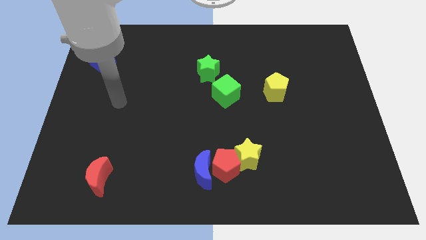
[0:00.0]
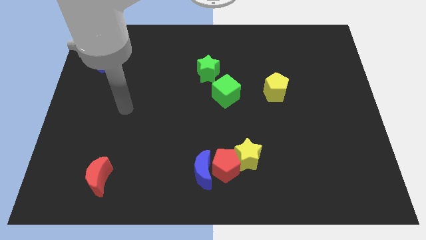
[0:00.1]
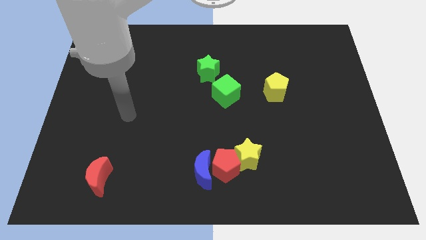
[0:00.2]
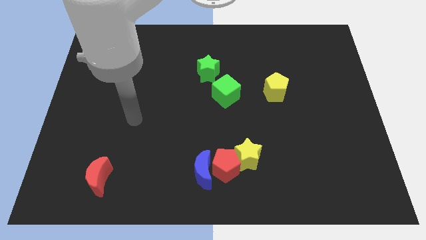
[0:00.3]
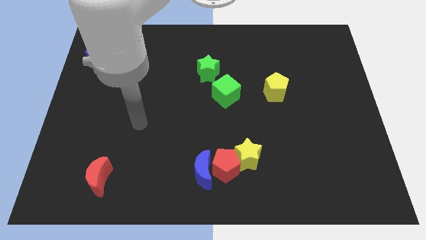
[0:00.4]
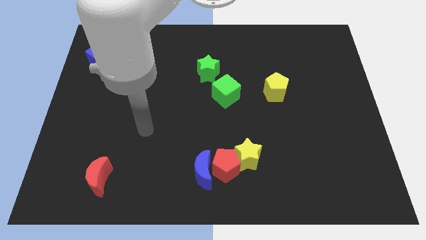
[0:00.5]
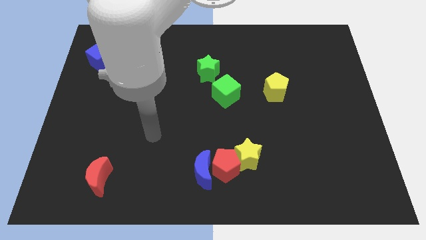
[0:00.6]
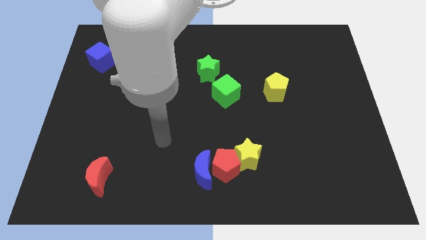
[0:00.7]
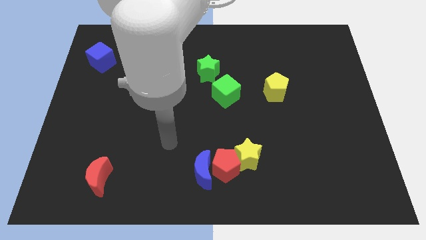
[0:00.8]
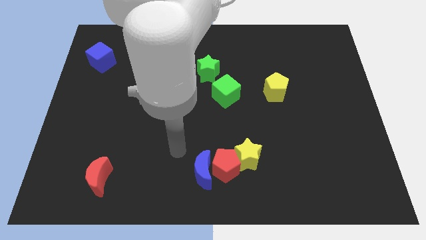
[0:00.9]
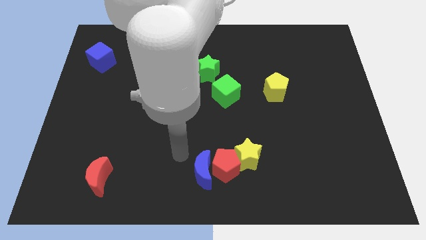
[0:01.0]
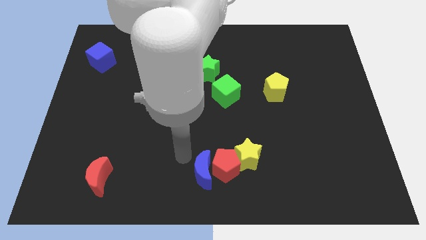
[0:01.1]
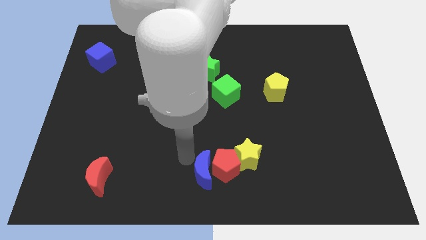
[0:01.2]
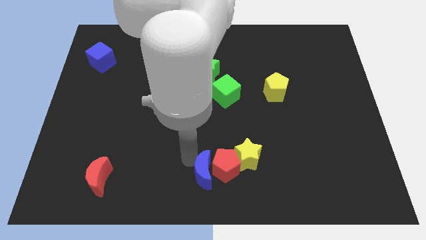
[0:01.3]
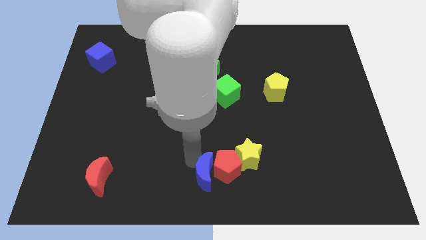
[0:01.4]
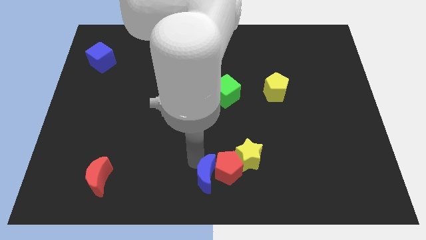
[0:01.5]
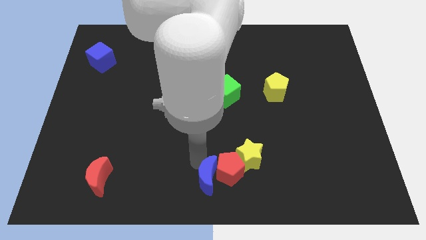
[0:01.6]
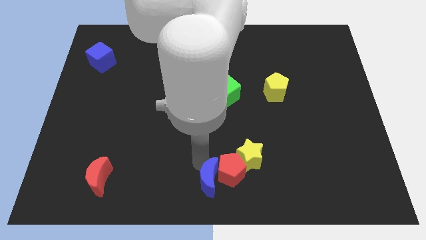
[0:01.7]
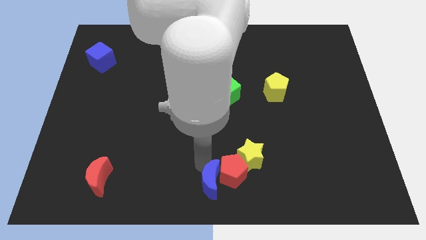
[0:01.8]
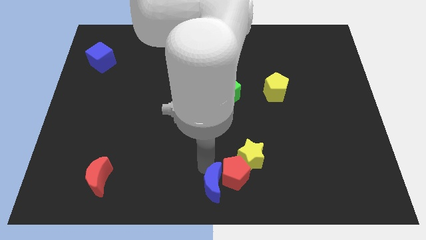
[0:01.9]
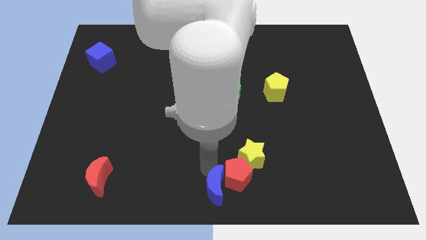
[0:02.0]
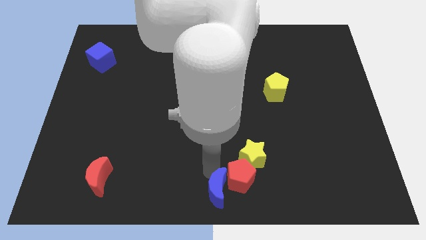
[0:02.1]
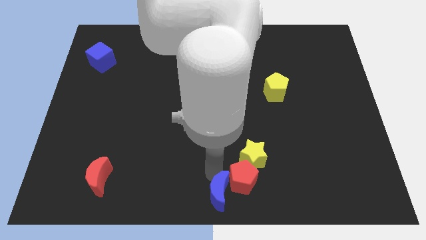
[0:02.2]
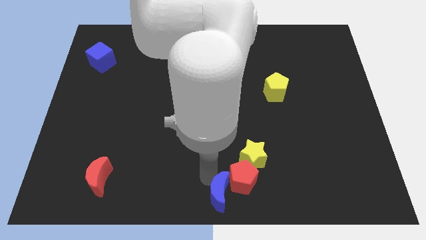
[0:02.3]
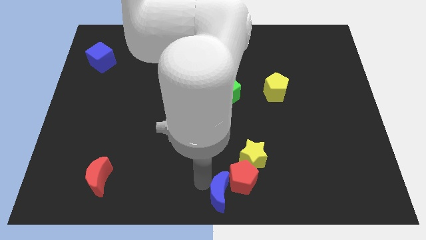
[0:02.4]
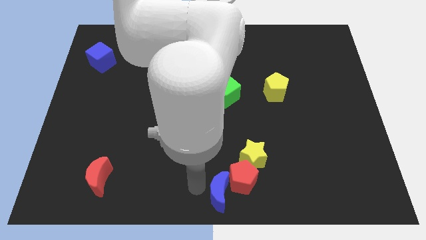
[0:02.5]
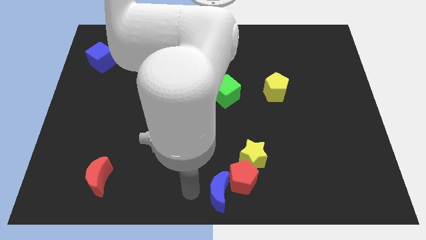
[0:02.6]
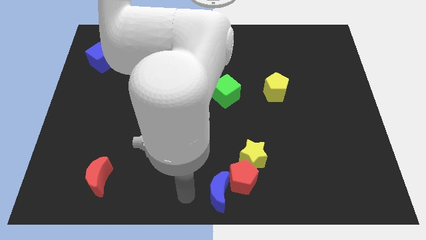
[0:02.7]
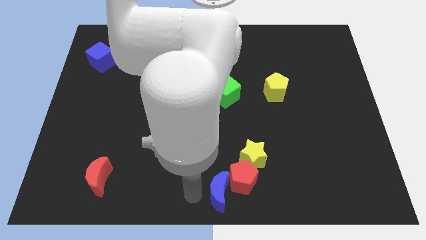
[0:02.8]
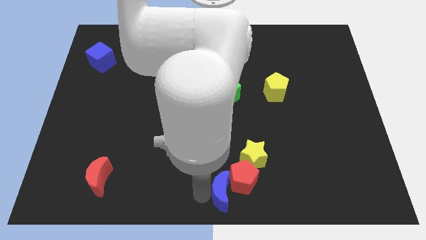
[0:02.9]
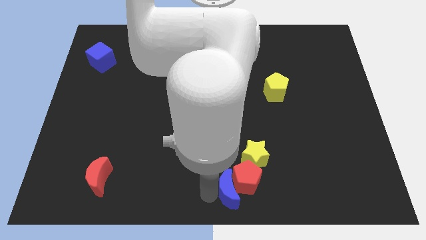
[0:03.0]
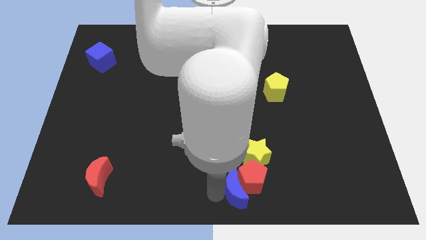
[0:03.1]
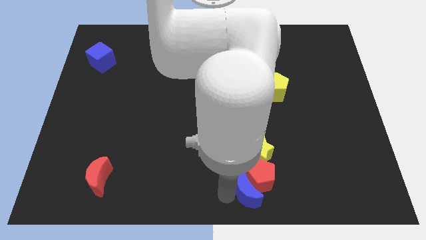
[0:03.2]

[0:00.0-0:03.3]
slightly slide the blue moon to the right

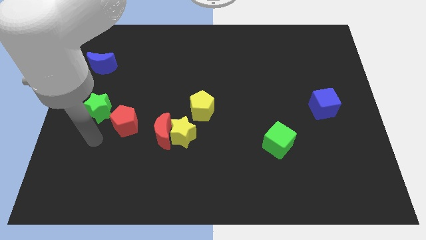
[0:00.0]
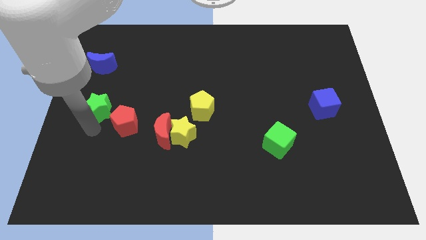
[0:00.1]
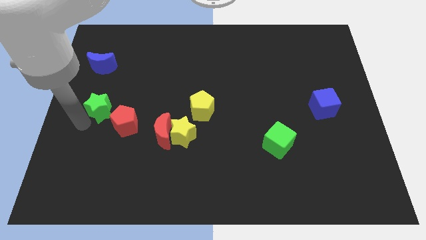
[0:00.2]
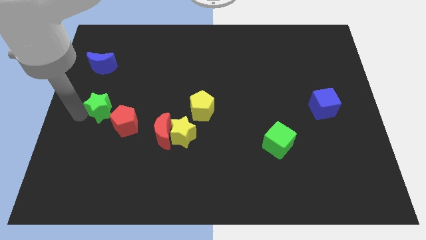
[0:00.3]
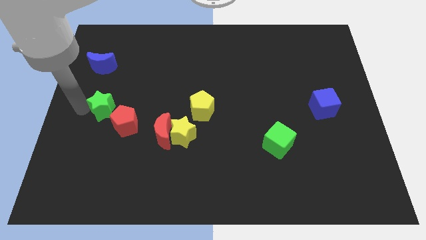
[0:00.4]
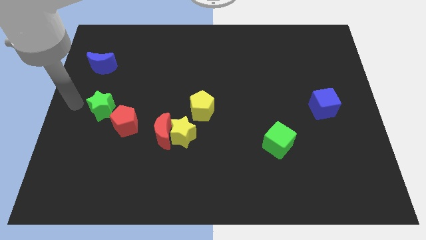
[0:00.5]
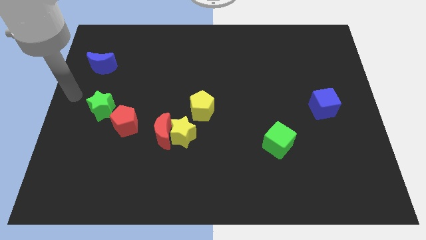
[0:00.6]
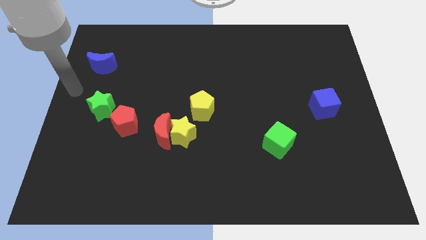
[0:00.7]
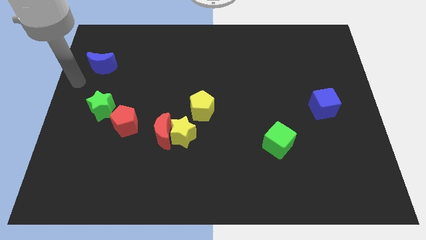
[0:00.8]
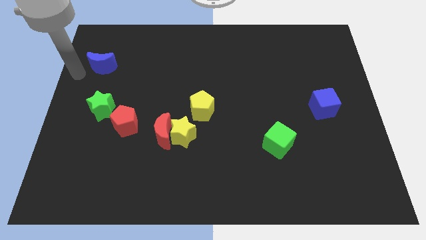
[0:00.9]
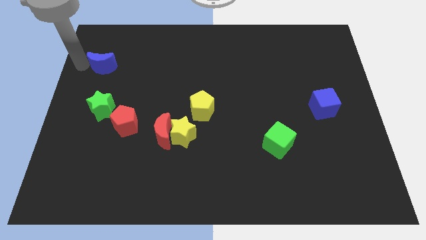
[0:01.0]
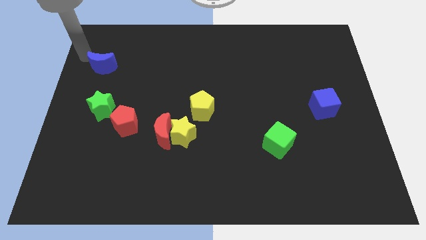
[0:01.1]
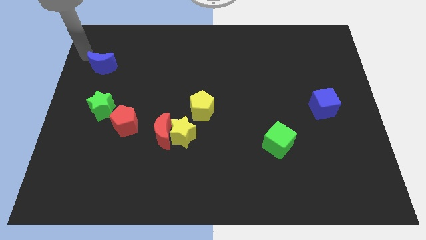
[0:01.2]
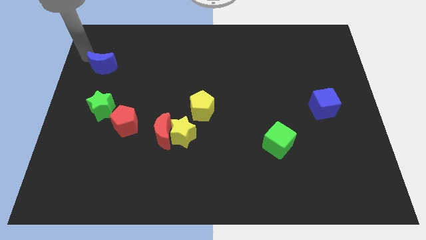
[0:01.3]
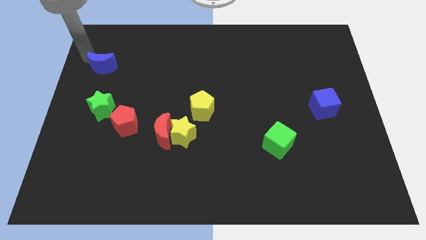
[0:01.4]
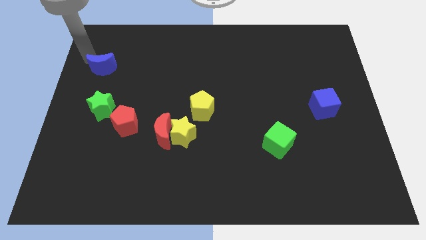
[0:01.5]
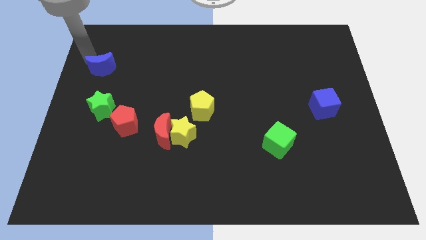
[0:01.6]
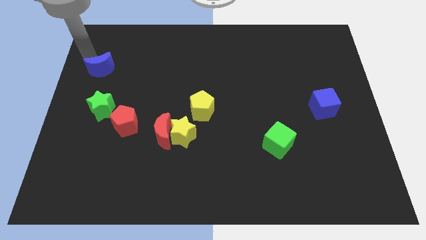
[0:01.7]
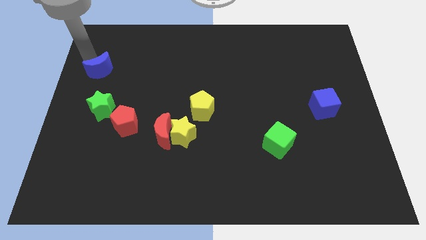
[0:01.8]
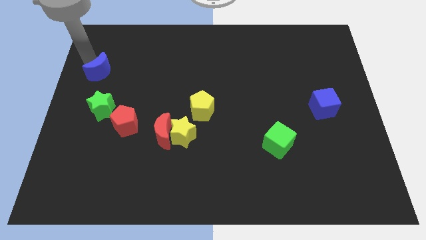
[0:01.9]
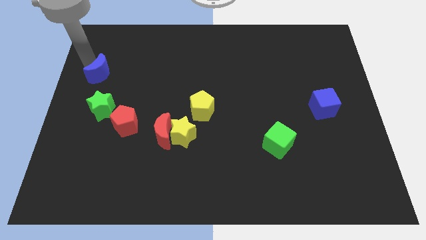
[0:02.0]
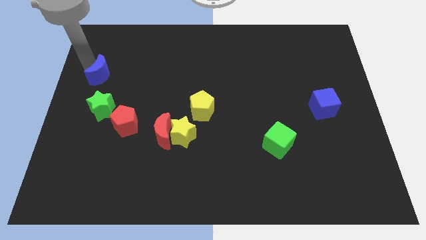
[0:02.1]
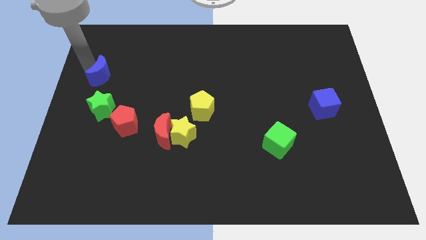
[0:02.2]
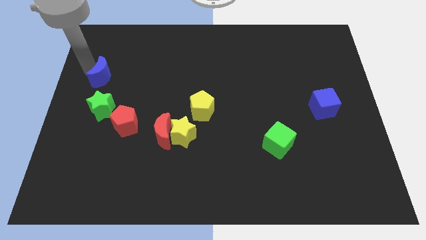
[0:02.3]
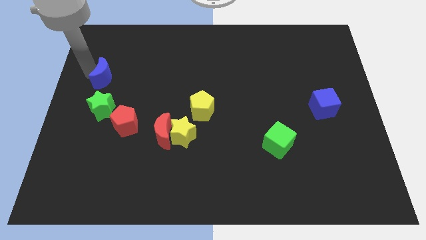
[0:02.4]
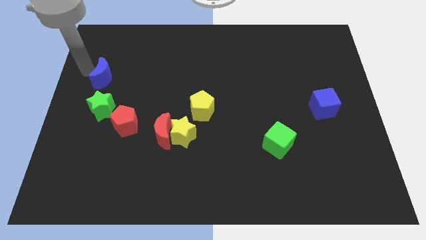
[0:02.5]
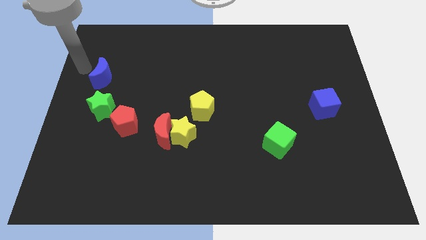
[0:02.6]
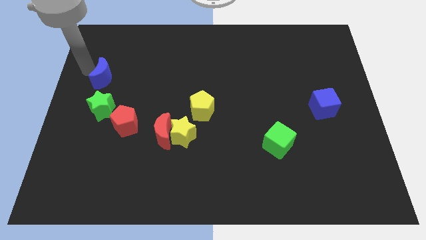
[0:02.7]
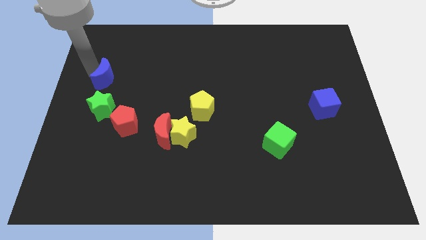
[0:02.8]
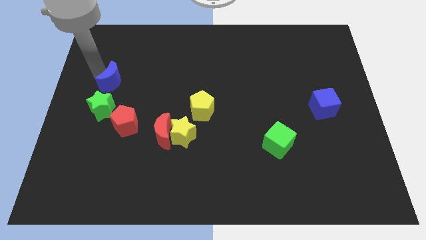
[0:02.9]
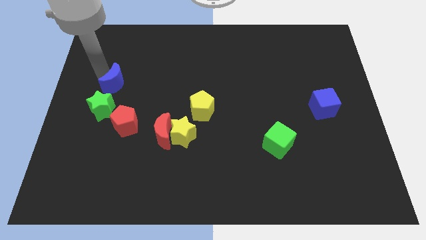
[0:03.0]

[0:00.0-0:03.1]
slightly move the blue moon diagonally down and right

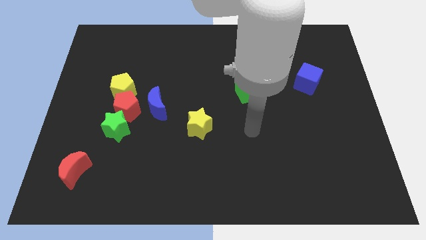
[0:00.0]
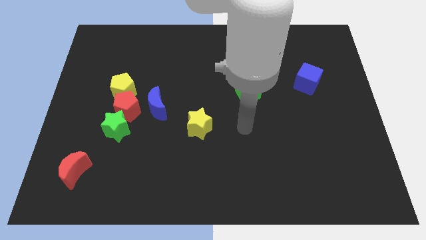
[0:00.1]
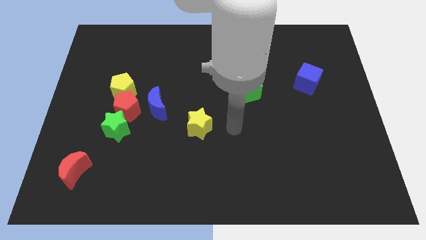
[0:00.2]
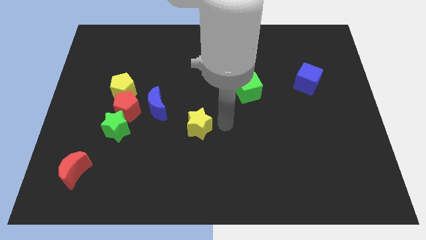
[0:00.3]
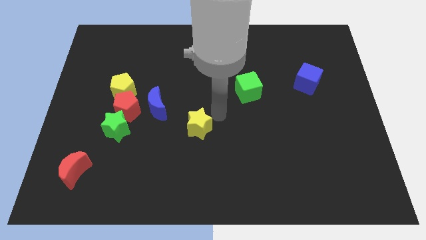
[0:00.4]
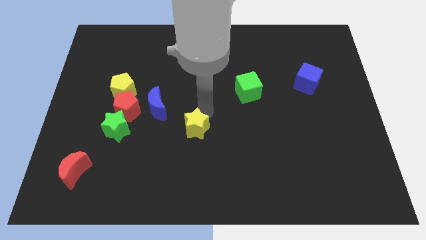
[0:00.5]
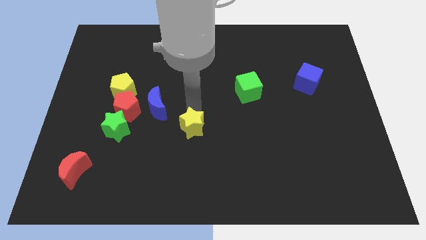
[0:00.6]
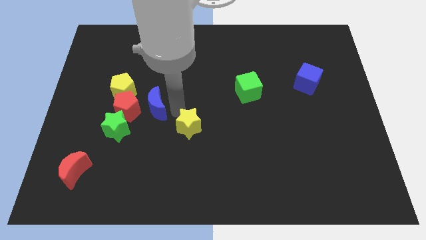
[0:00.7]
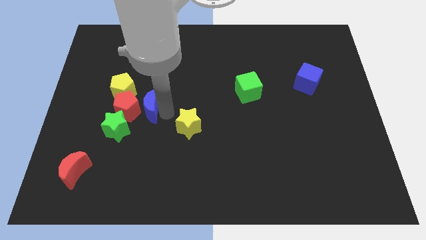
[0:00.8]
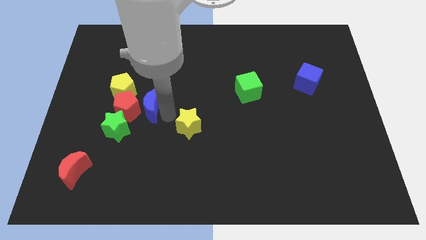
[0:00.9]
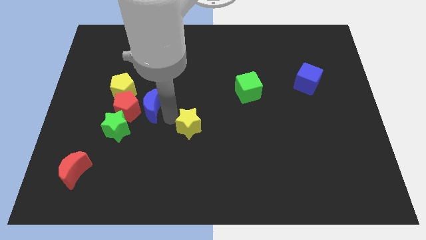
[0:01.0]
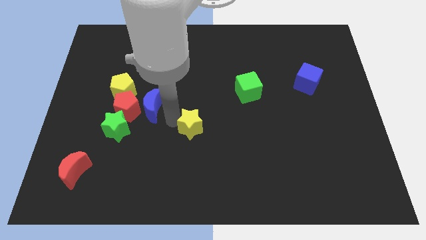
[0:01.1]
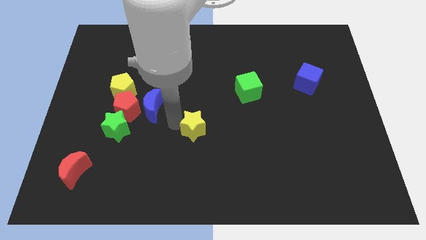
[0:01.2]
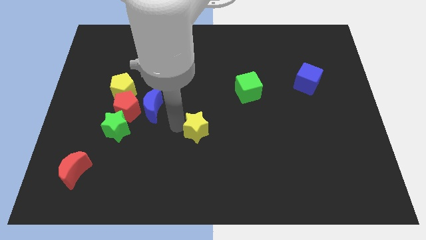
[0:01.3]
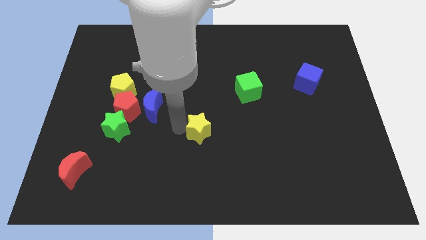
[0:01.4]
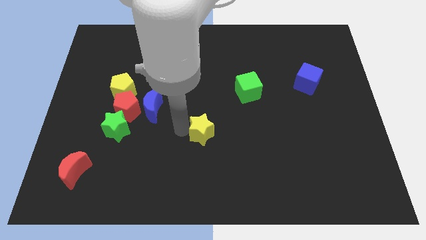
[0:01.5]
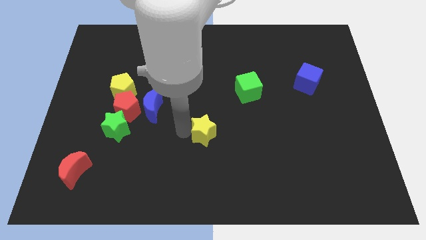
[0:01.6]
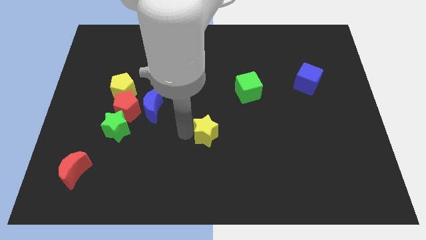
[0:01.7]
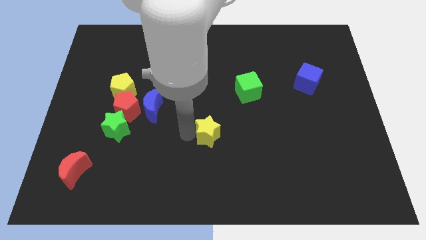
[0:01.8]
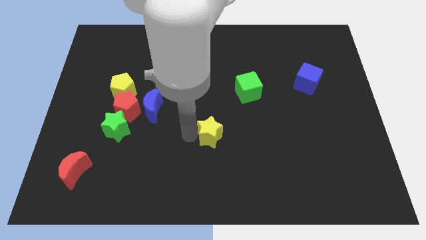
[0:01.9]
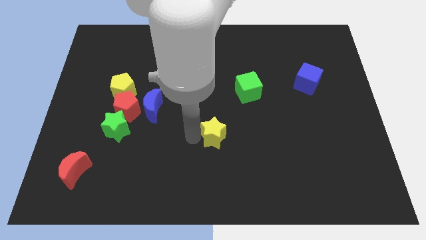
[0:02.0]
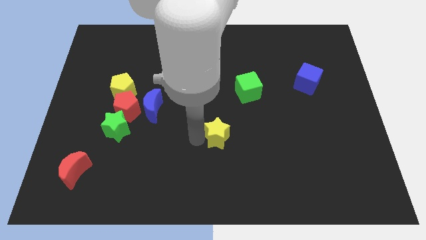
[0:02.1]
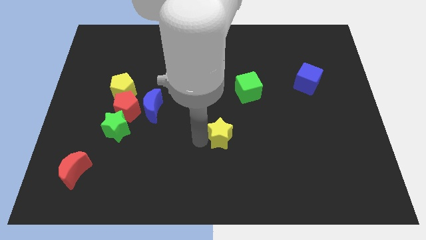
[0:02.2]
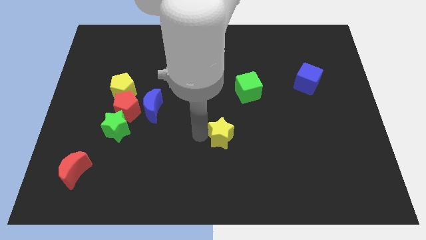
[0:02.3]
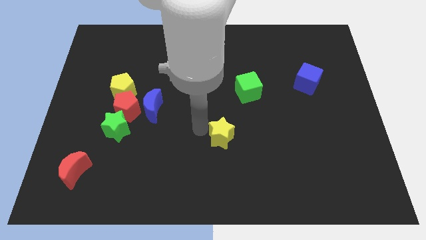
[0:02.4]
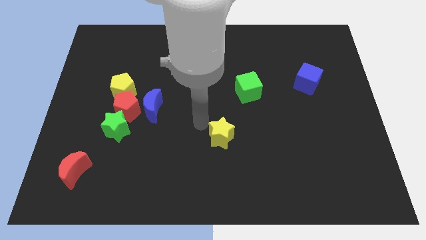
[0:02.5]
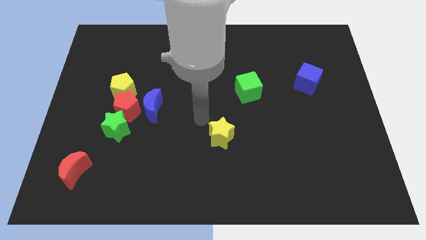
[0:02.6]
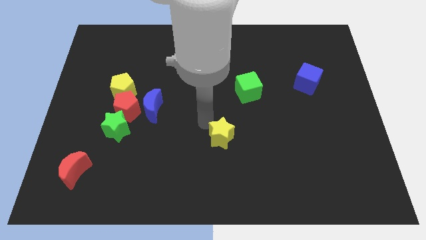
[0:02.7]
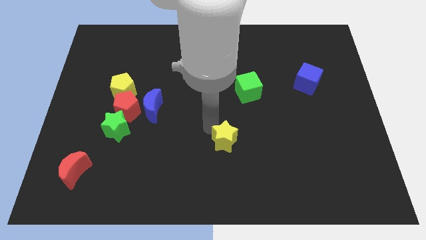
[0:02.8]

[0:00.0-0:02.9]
slide the yellow star a little bit down and to the right
